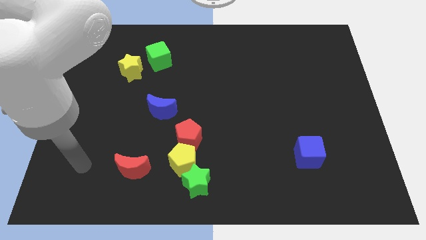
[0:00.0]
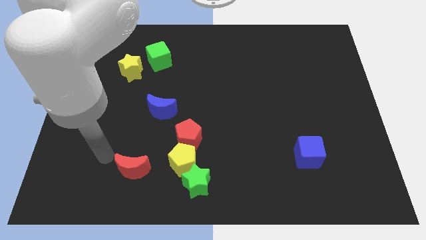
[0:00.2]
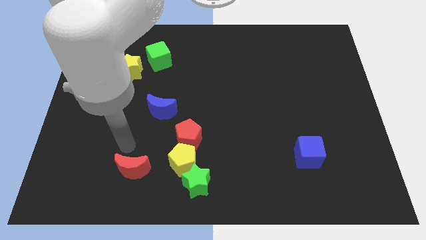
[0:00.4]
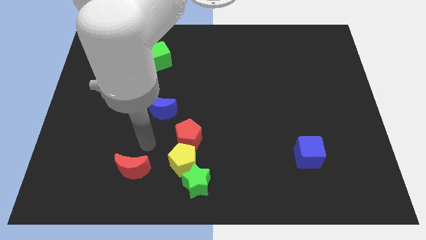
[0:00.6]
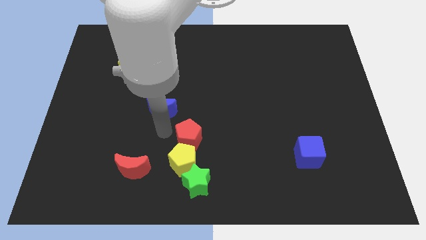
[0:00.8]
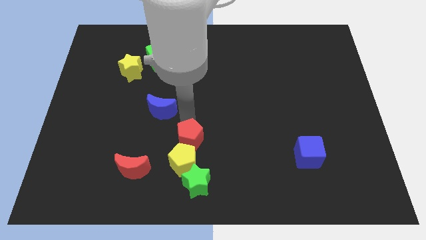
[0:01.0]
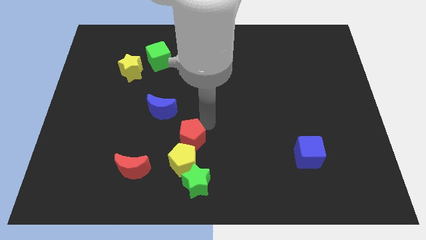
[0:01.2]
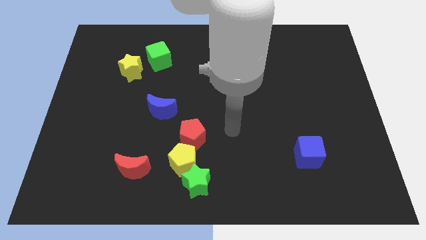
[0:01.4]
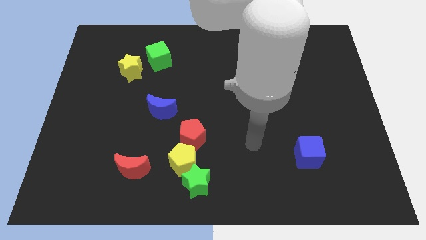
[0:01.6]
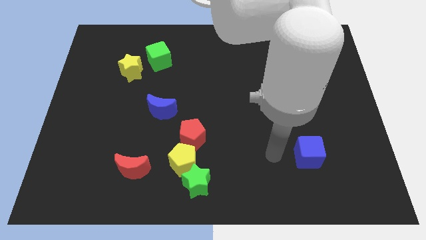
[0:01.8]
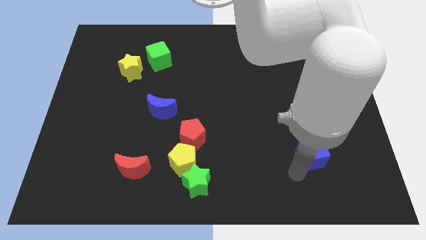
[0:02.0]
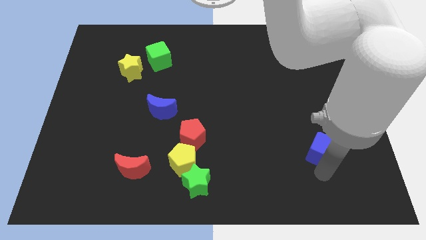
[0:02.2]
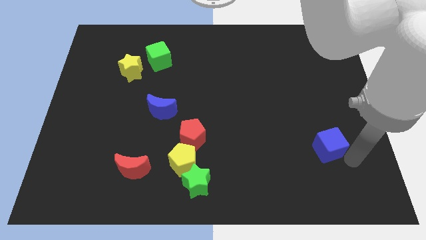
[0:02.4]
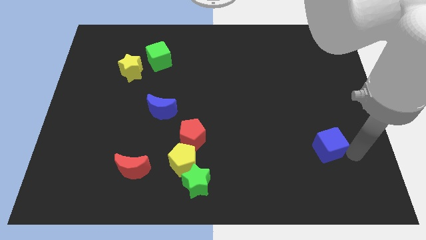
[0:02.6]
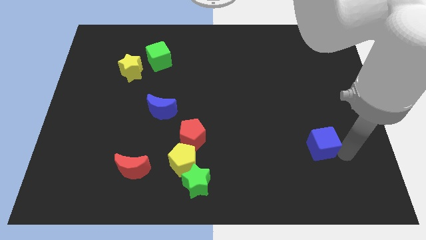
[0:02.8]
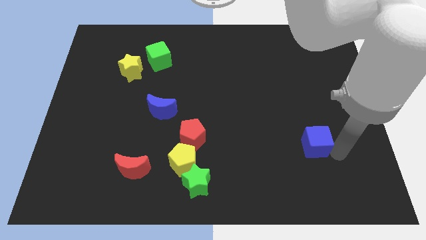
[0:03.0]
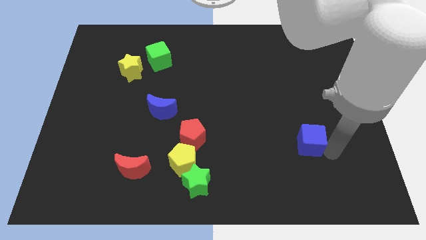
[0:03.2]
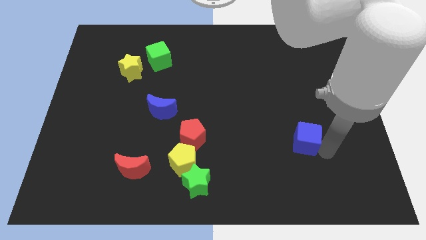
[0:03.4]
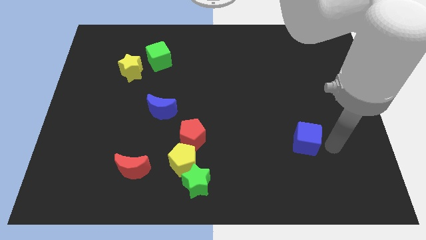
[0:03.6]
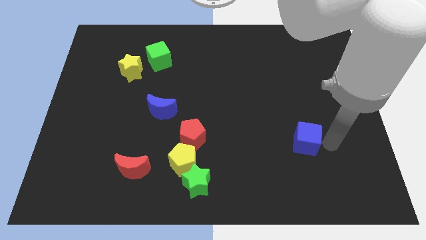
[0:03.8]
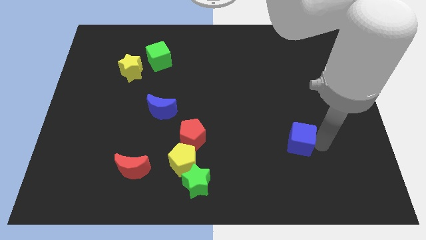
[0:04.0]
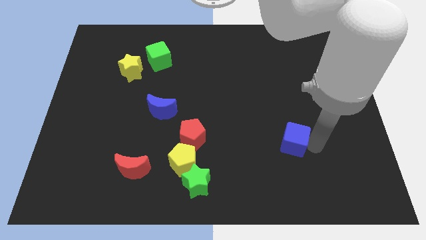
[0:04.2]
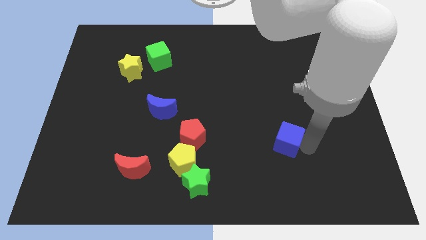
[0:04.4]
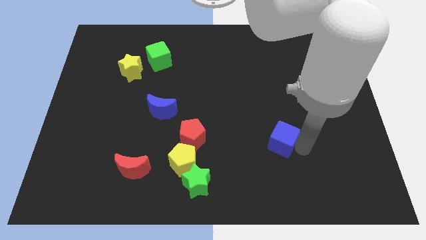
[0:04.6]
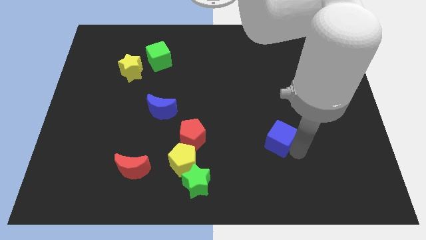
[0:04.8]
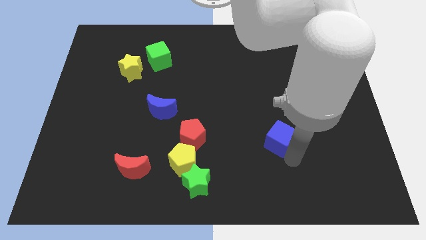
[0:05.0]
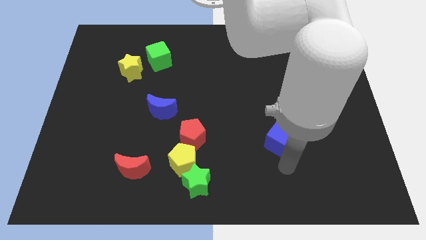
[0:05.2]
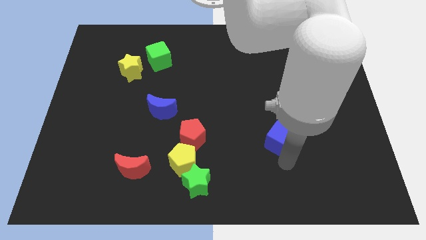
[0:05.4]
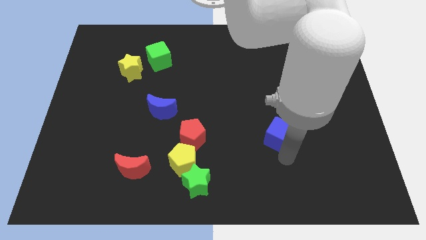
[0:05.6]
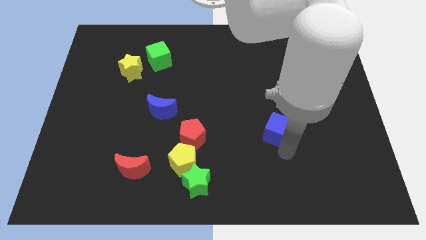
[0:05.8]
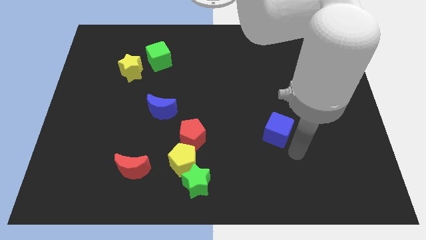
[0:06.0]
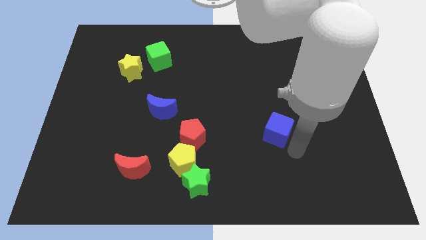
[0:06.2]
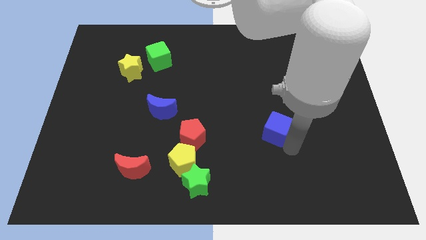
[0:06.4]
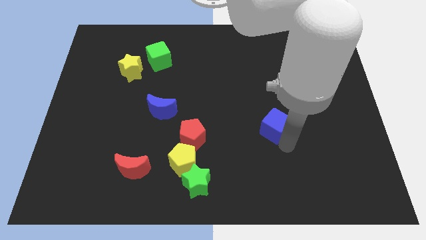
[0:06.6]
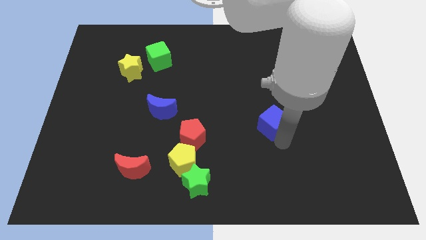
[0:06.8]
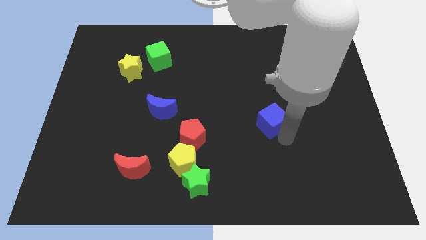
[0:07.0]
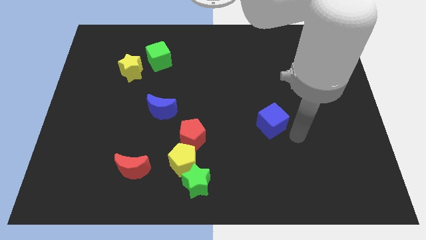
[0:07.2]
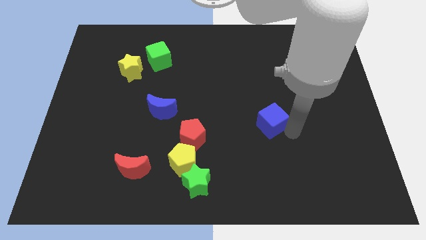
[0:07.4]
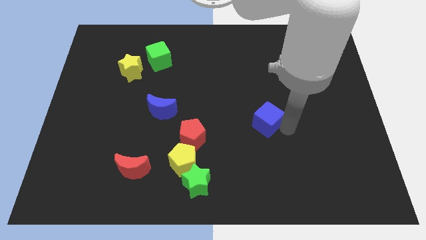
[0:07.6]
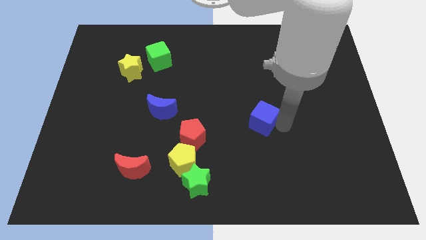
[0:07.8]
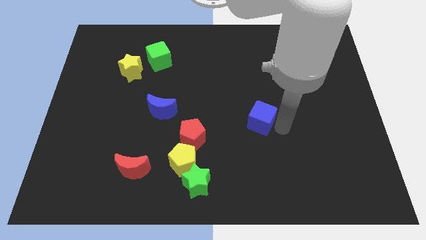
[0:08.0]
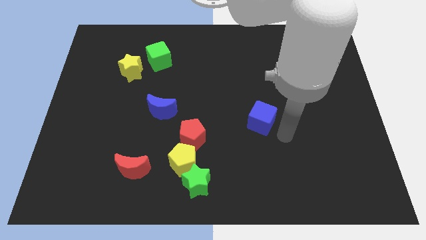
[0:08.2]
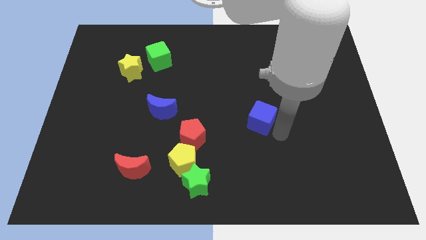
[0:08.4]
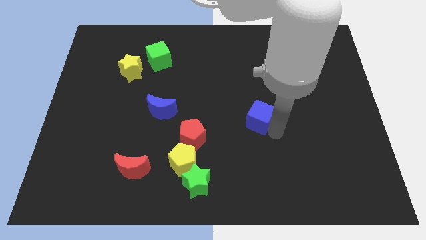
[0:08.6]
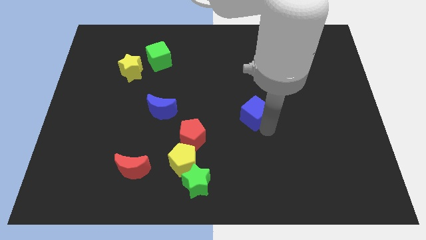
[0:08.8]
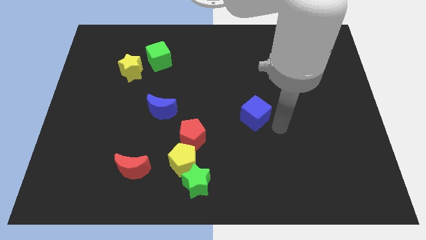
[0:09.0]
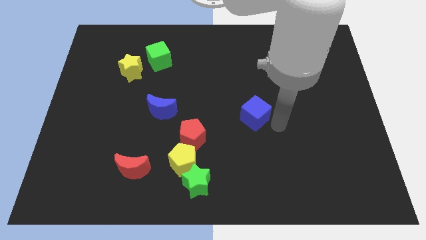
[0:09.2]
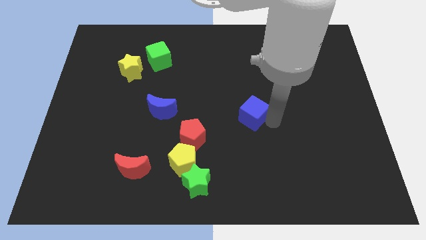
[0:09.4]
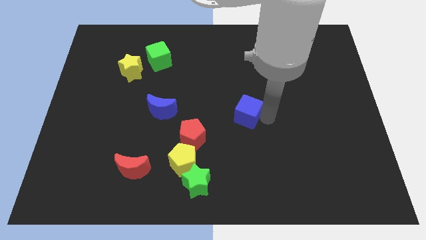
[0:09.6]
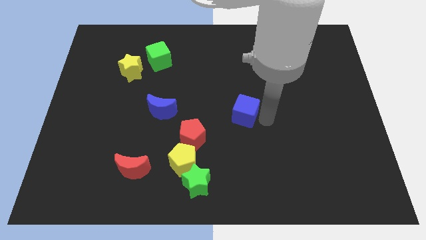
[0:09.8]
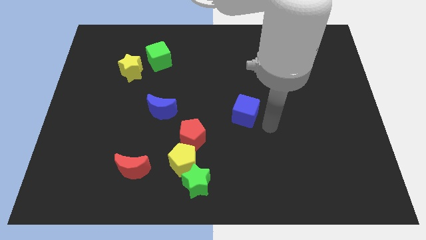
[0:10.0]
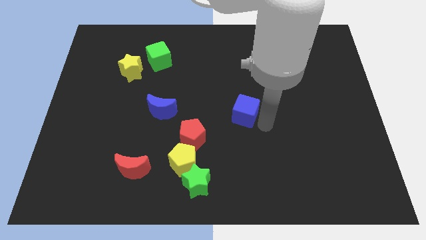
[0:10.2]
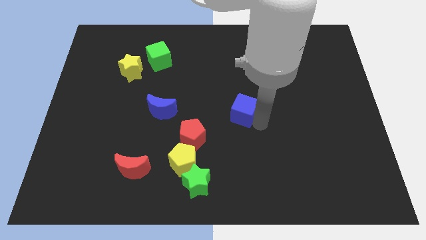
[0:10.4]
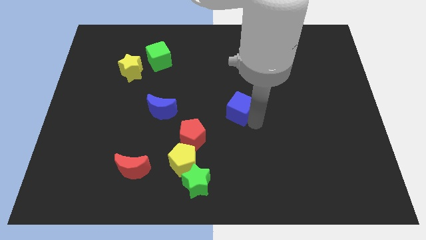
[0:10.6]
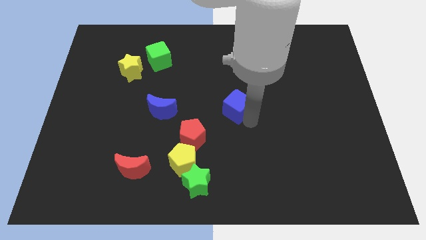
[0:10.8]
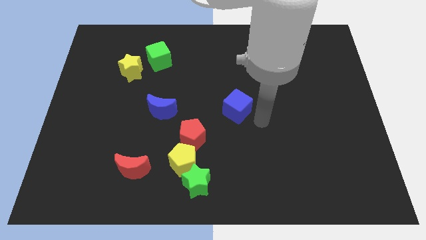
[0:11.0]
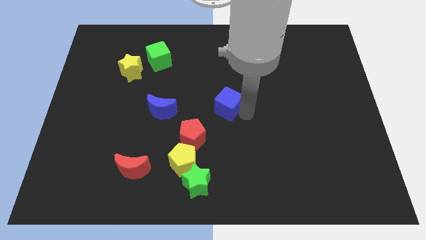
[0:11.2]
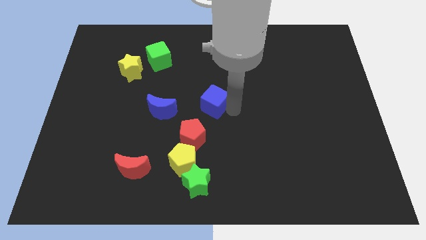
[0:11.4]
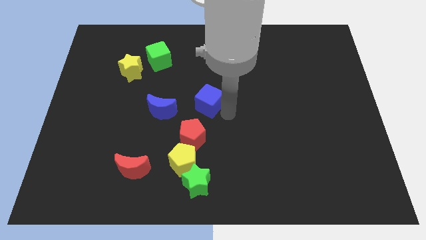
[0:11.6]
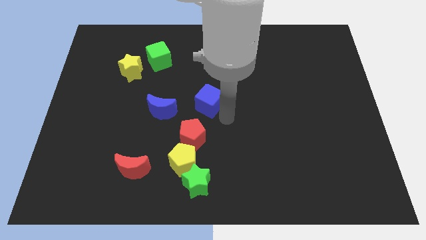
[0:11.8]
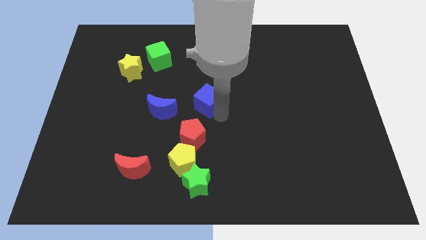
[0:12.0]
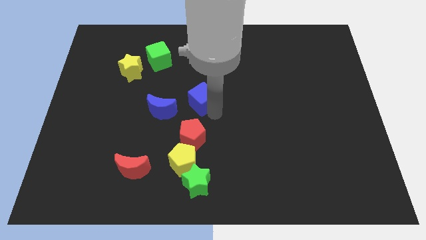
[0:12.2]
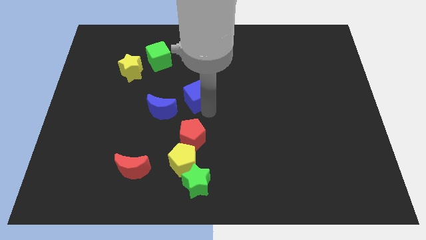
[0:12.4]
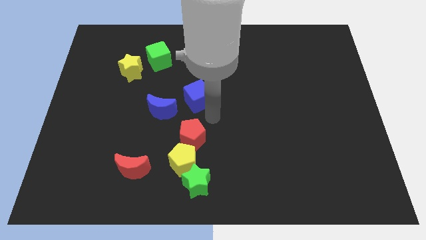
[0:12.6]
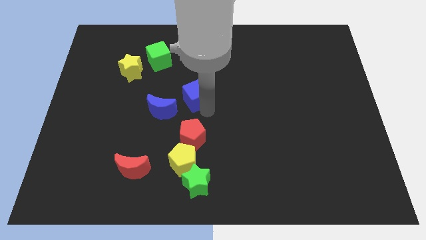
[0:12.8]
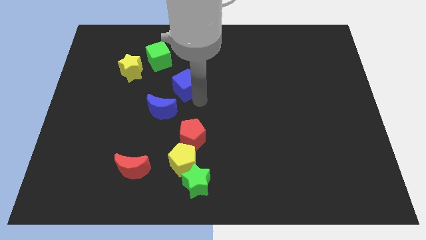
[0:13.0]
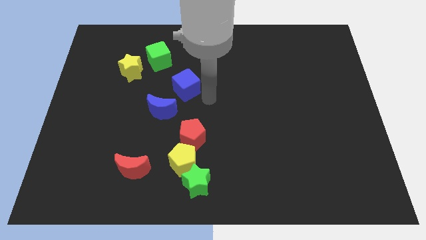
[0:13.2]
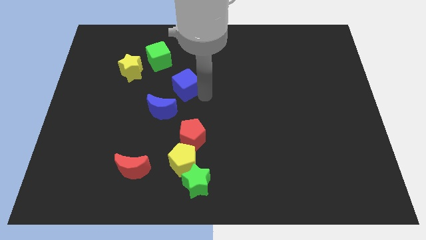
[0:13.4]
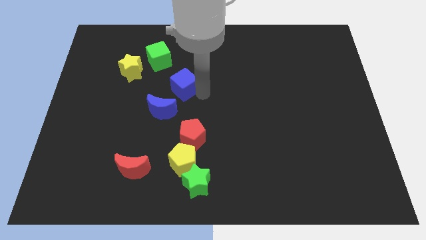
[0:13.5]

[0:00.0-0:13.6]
slide the blue cube to the top of the blue moon

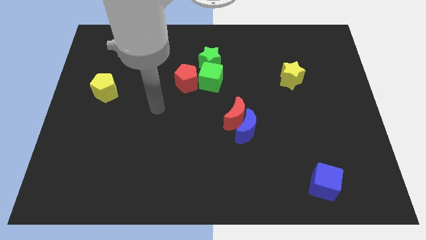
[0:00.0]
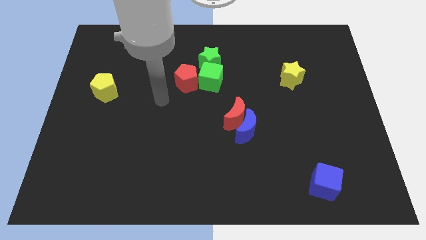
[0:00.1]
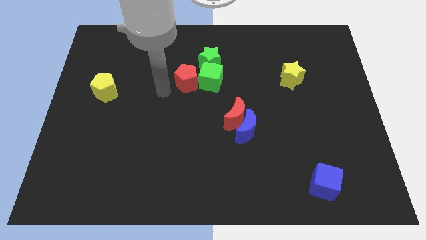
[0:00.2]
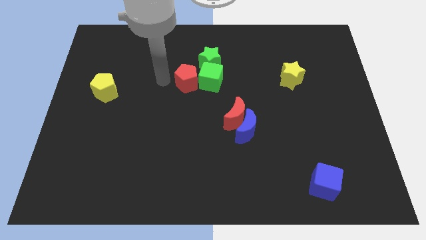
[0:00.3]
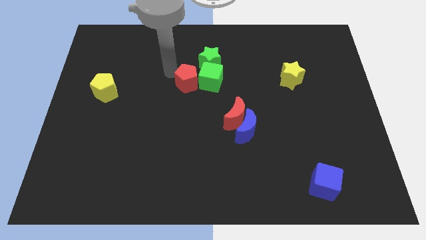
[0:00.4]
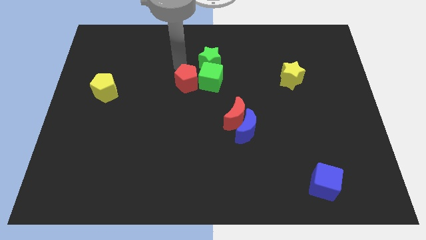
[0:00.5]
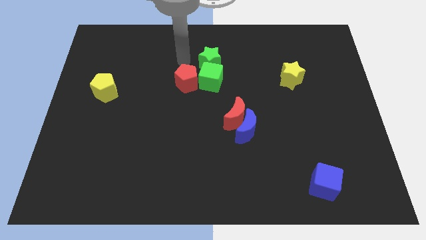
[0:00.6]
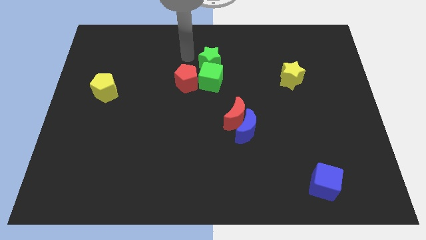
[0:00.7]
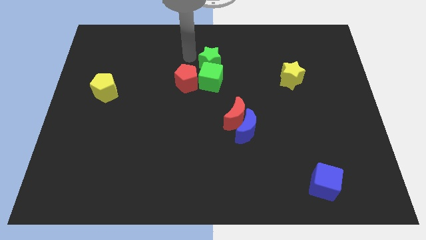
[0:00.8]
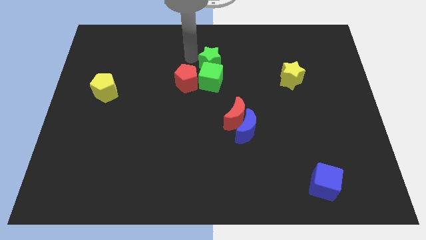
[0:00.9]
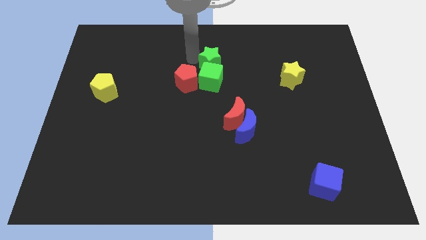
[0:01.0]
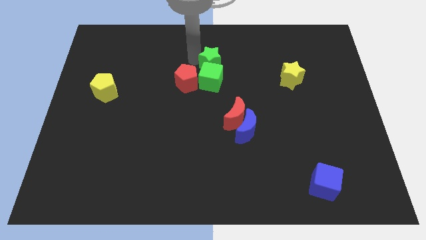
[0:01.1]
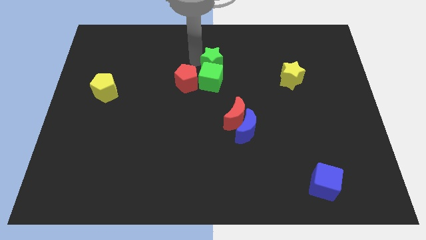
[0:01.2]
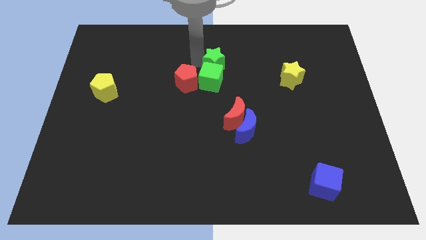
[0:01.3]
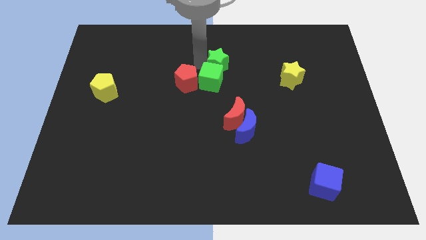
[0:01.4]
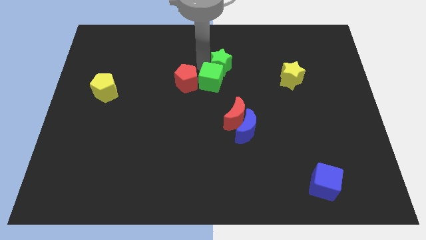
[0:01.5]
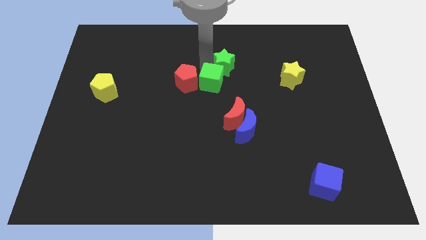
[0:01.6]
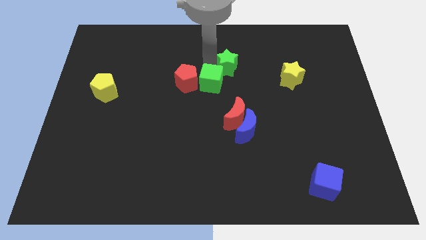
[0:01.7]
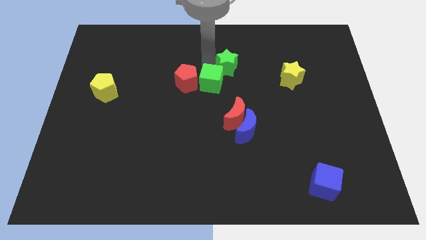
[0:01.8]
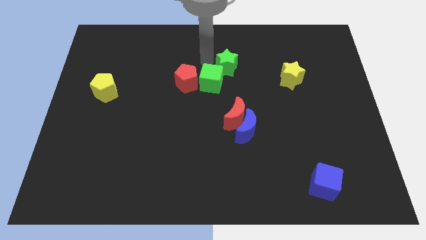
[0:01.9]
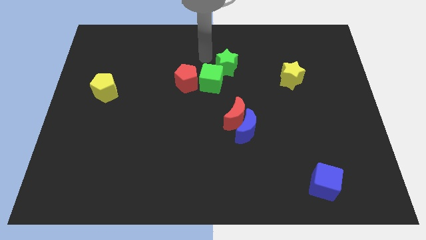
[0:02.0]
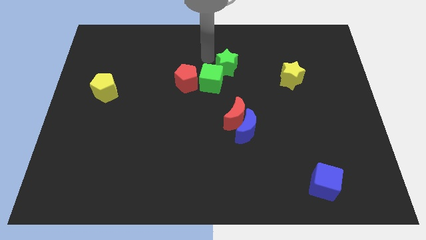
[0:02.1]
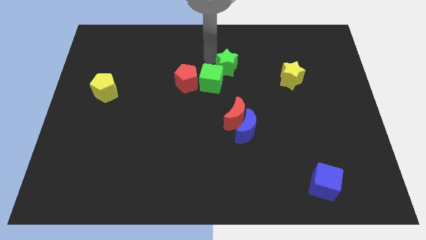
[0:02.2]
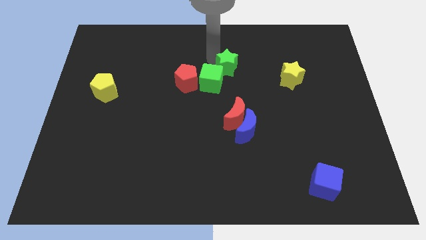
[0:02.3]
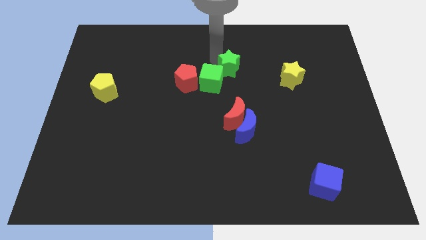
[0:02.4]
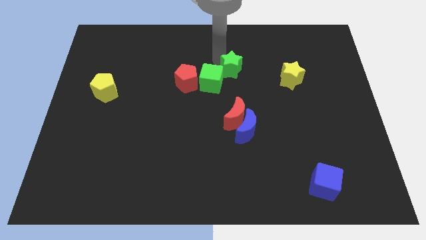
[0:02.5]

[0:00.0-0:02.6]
slide the green star to the left of the yellow star
